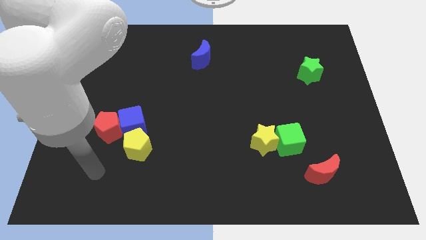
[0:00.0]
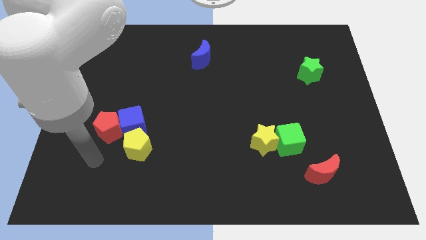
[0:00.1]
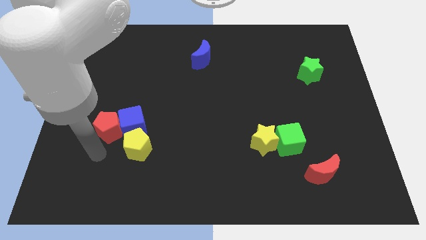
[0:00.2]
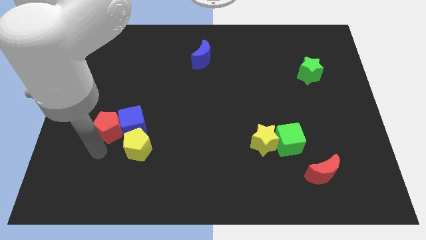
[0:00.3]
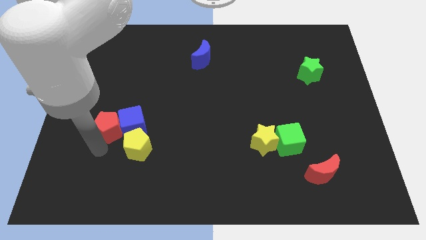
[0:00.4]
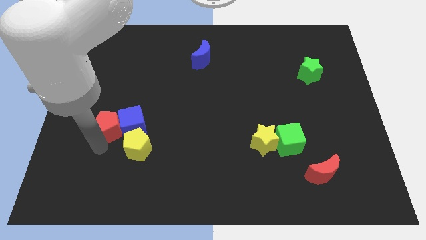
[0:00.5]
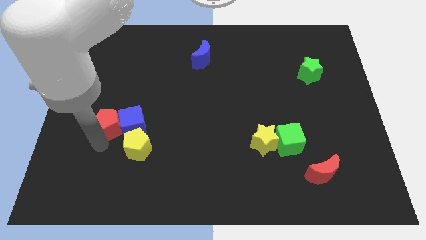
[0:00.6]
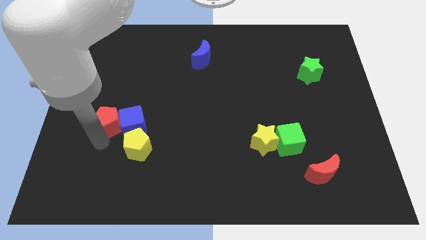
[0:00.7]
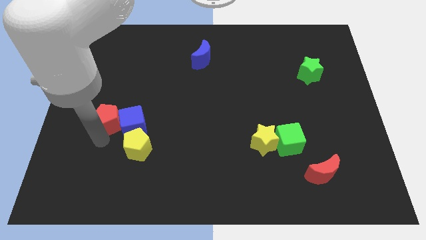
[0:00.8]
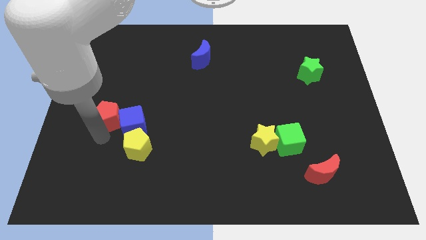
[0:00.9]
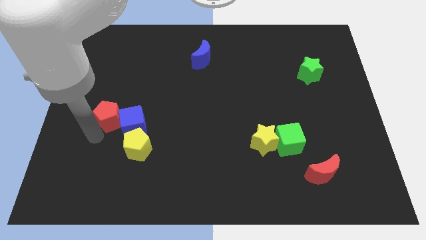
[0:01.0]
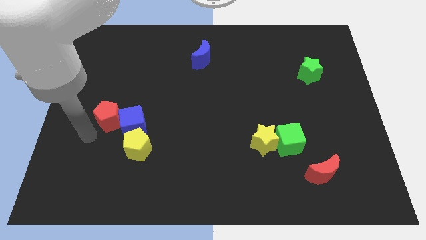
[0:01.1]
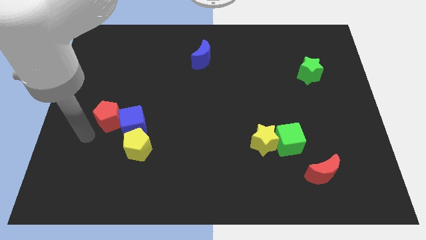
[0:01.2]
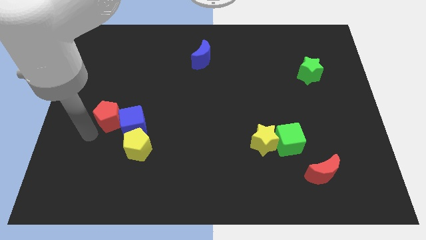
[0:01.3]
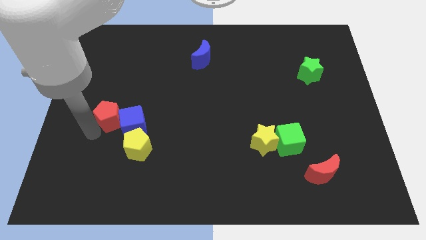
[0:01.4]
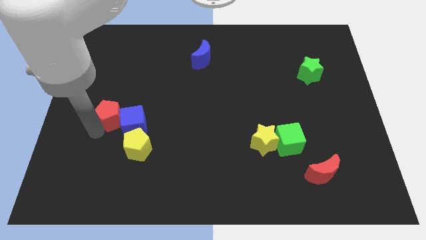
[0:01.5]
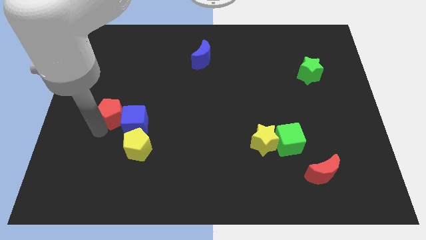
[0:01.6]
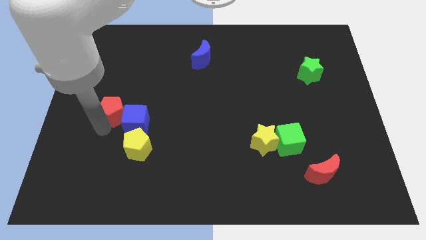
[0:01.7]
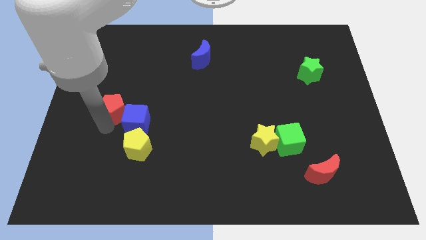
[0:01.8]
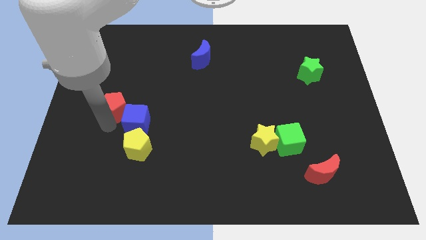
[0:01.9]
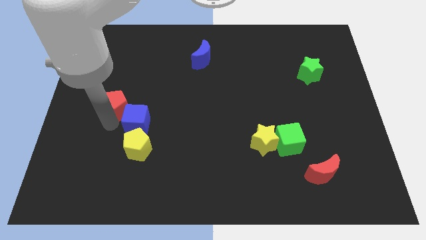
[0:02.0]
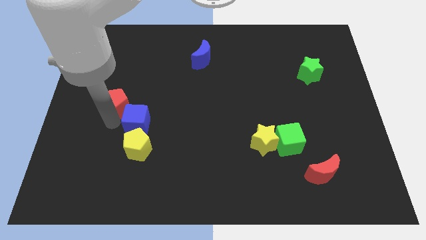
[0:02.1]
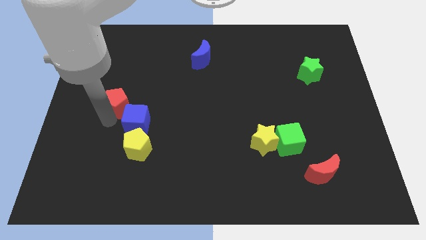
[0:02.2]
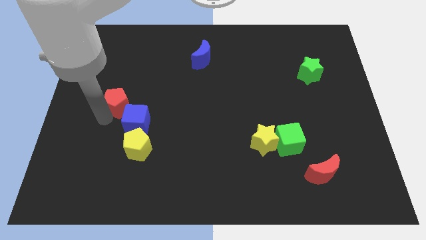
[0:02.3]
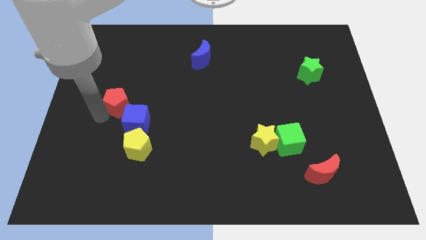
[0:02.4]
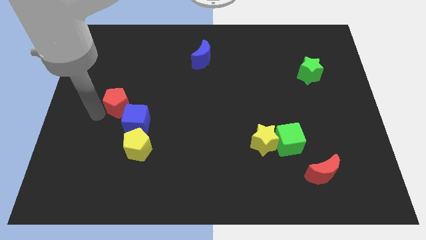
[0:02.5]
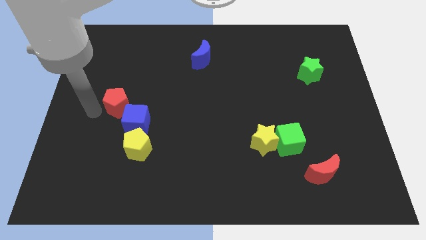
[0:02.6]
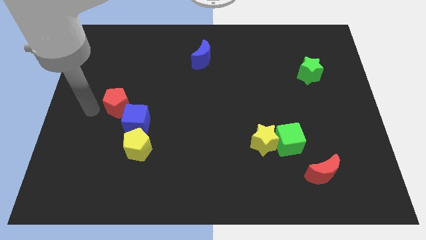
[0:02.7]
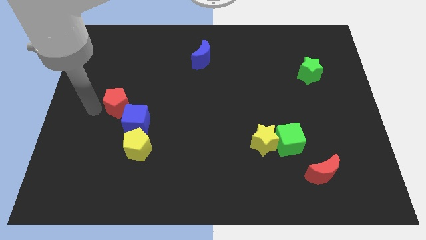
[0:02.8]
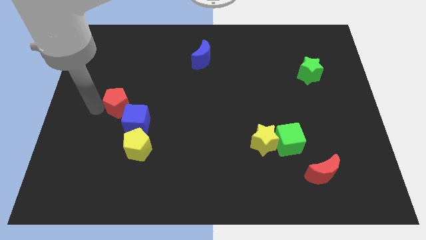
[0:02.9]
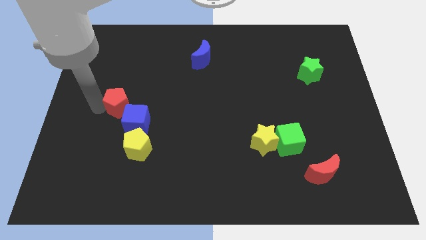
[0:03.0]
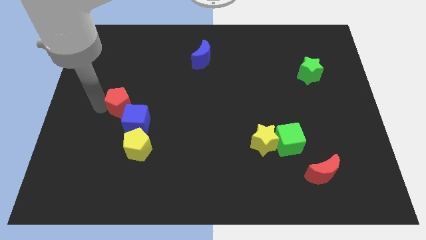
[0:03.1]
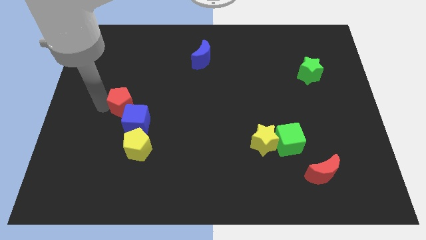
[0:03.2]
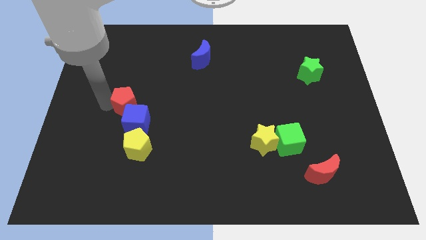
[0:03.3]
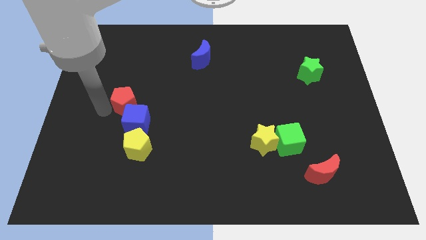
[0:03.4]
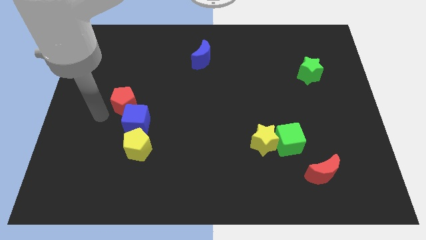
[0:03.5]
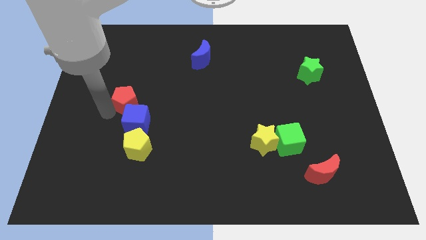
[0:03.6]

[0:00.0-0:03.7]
slightly move the red pentagon upwards and right diagonally

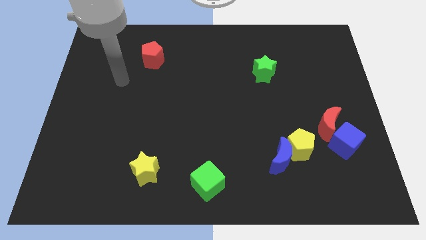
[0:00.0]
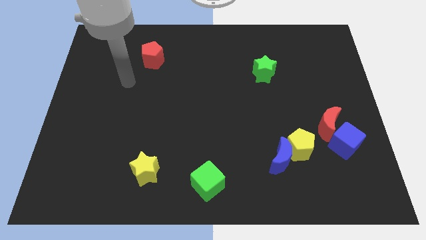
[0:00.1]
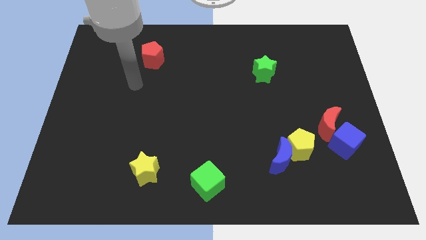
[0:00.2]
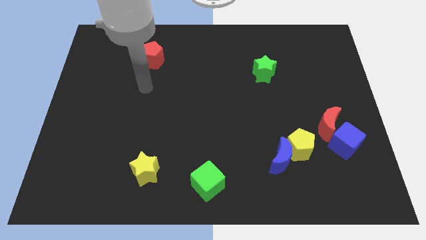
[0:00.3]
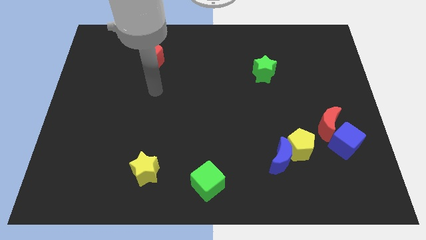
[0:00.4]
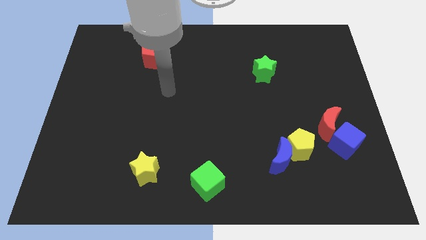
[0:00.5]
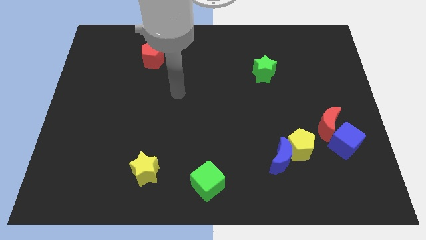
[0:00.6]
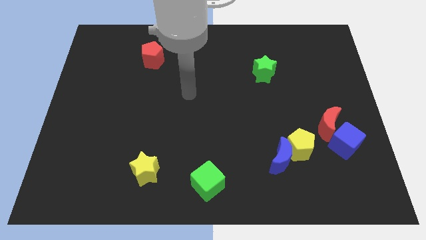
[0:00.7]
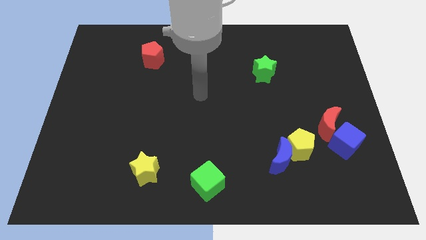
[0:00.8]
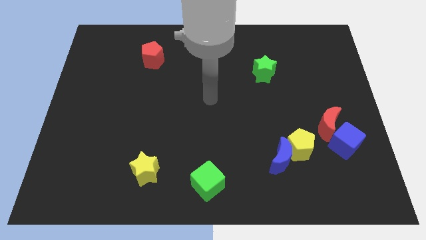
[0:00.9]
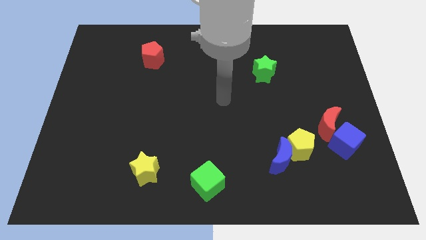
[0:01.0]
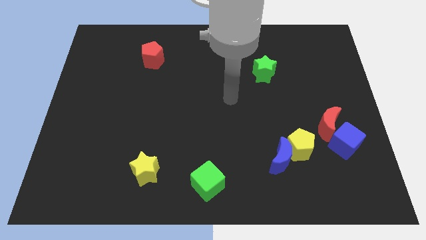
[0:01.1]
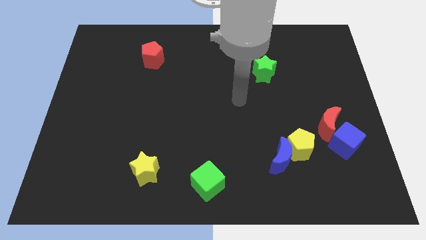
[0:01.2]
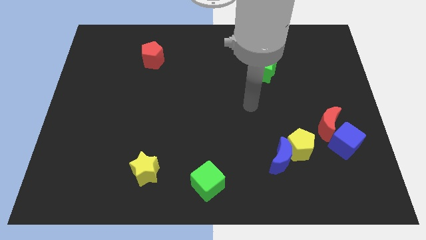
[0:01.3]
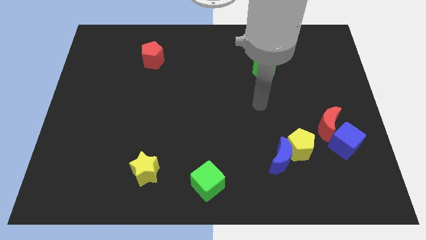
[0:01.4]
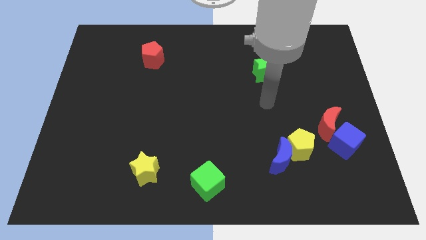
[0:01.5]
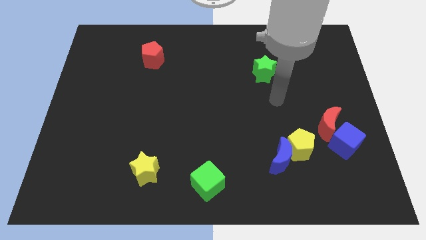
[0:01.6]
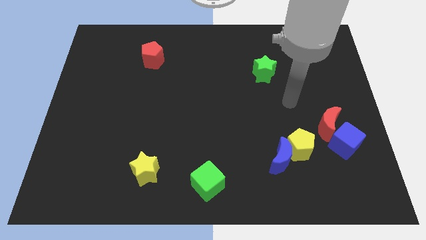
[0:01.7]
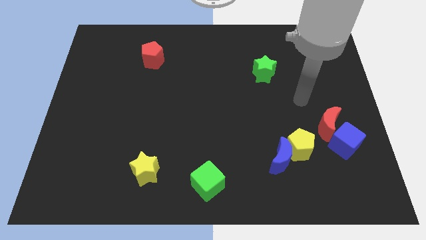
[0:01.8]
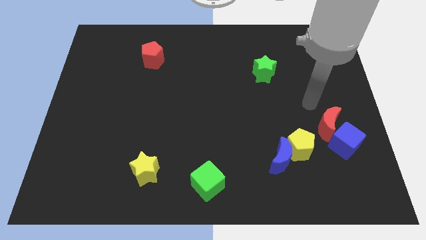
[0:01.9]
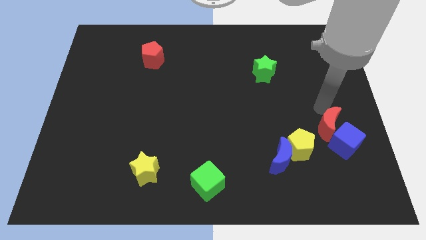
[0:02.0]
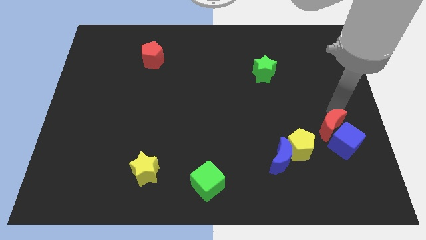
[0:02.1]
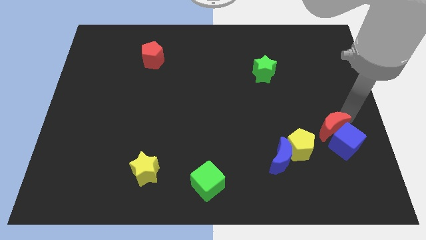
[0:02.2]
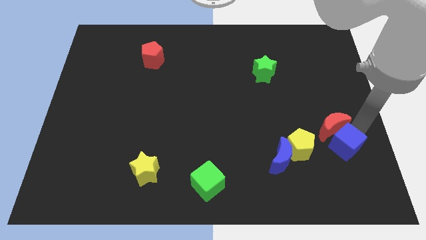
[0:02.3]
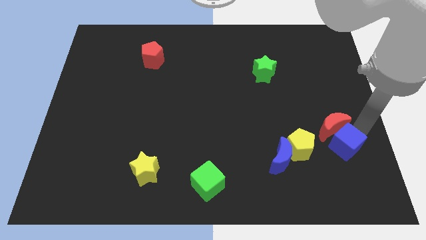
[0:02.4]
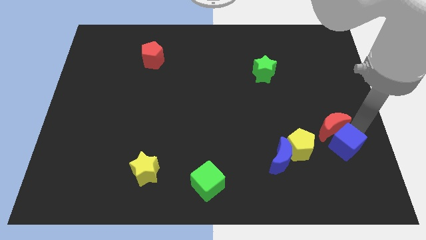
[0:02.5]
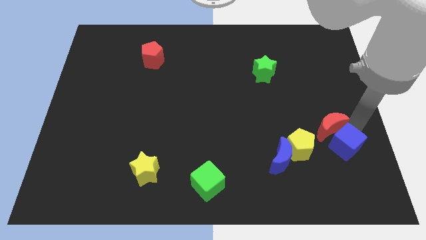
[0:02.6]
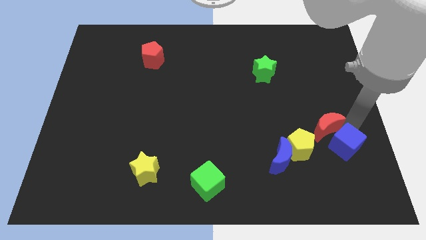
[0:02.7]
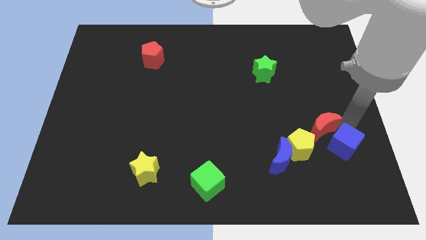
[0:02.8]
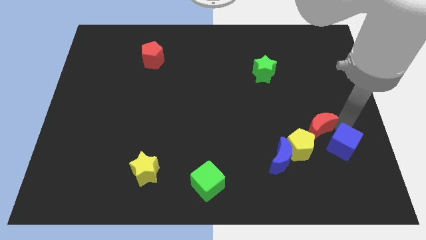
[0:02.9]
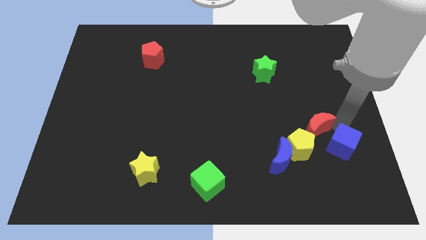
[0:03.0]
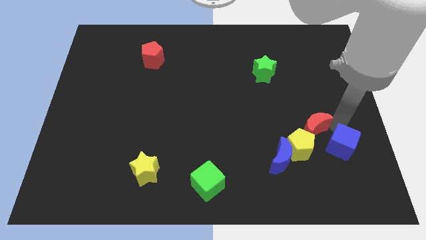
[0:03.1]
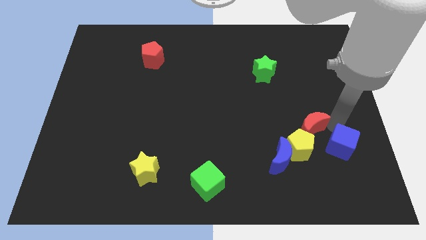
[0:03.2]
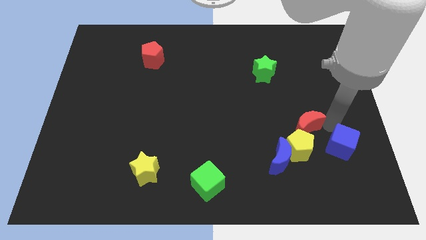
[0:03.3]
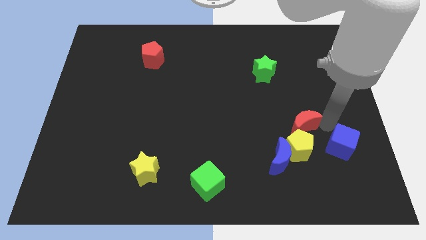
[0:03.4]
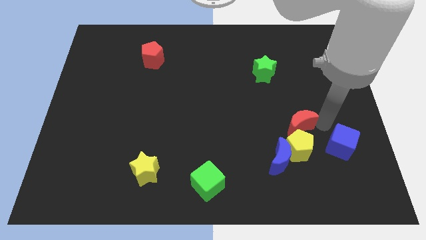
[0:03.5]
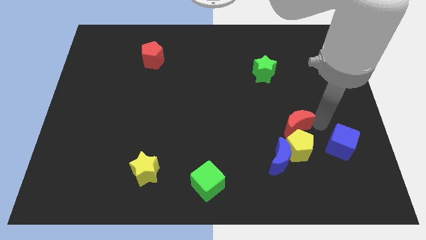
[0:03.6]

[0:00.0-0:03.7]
slide the red moon to the left a little

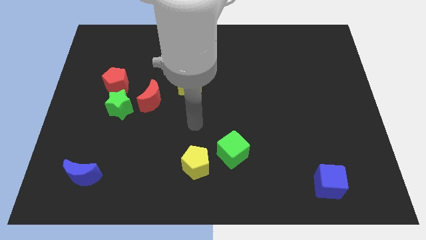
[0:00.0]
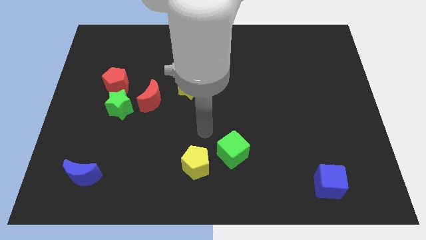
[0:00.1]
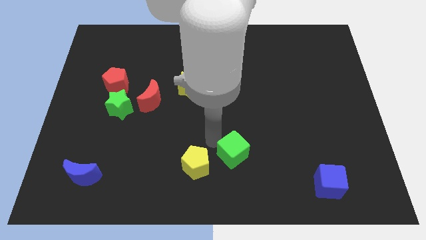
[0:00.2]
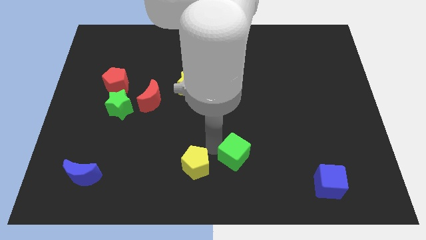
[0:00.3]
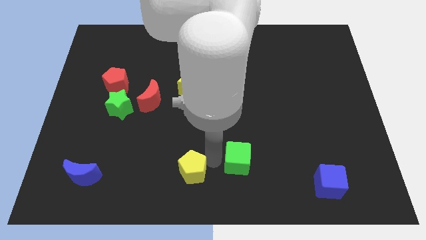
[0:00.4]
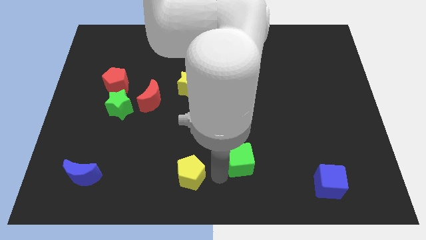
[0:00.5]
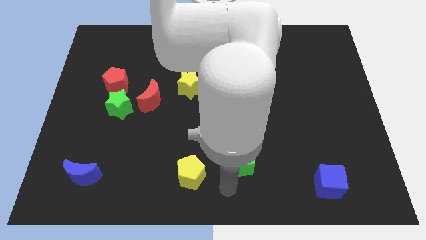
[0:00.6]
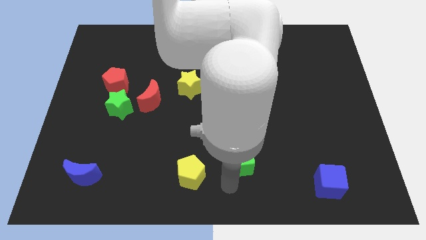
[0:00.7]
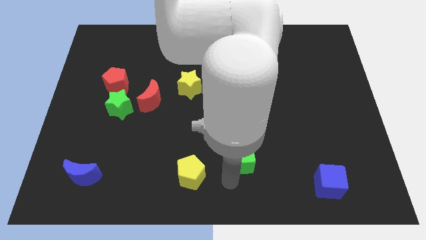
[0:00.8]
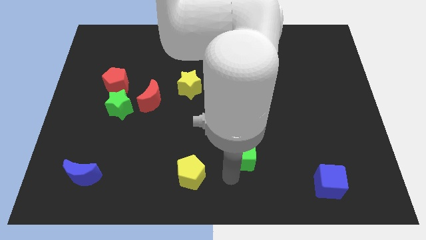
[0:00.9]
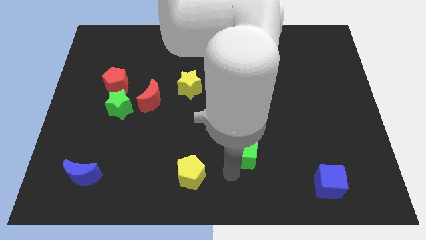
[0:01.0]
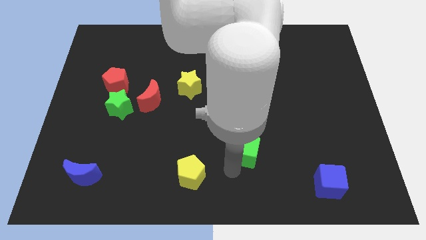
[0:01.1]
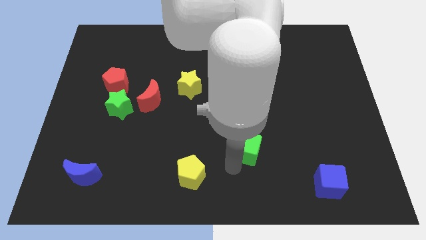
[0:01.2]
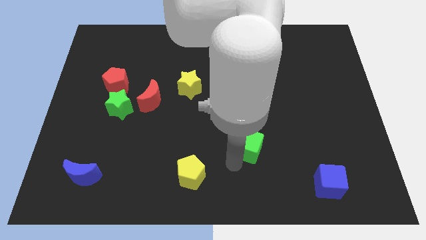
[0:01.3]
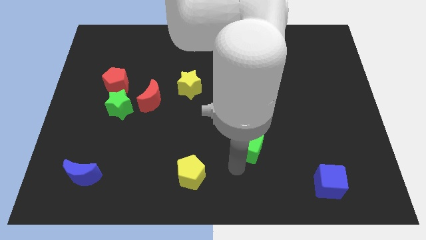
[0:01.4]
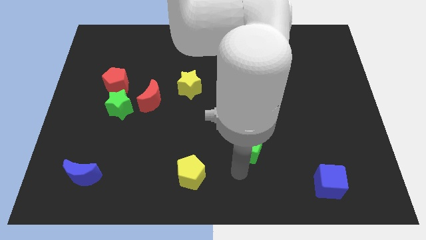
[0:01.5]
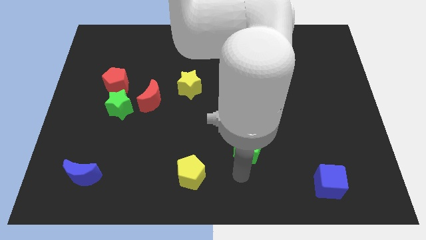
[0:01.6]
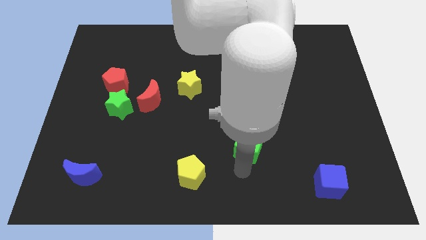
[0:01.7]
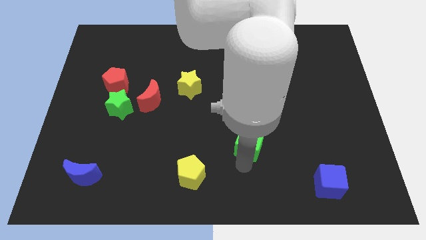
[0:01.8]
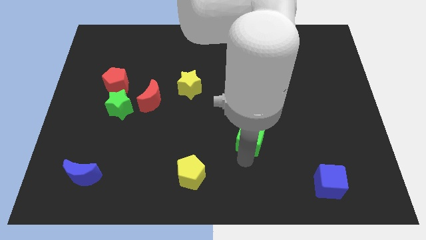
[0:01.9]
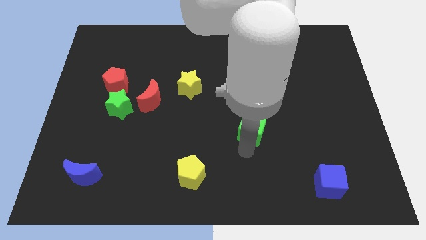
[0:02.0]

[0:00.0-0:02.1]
push the green cube a bit up and right diagonally
